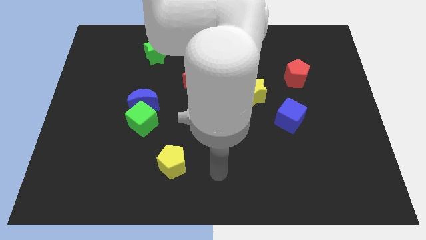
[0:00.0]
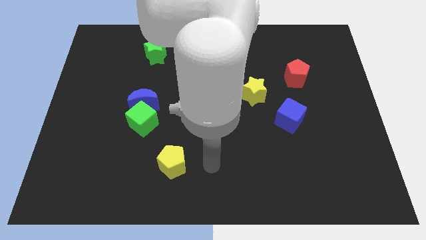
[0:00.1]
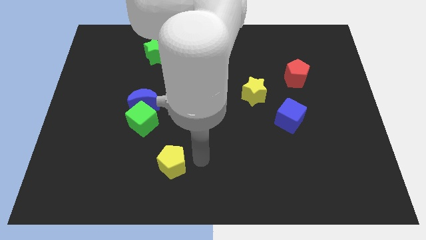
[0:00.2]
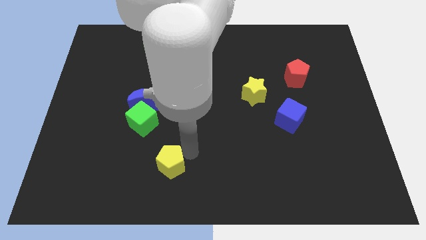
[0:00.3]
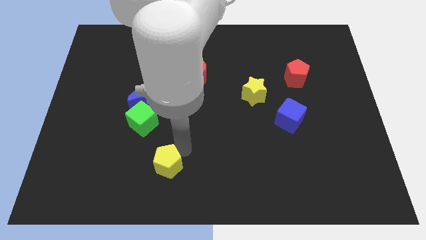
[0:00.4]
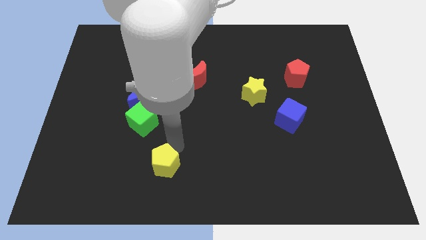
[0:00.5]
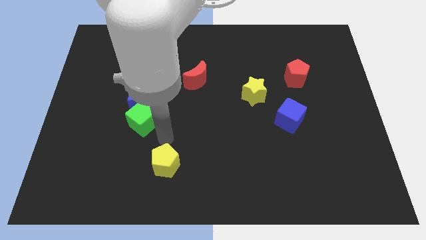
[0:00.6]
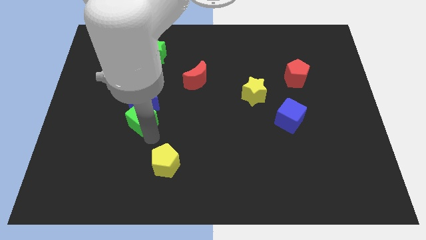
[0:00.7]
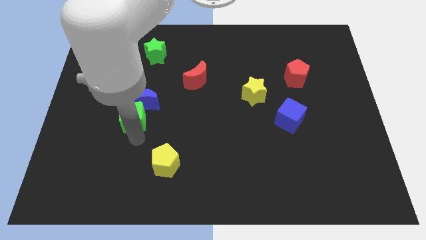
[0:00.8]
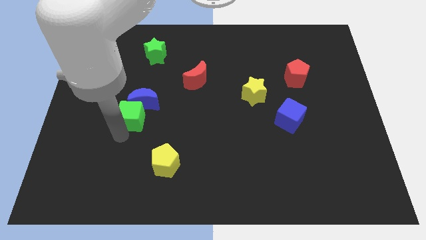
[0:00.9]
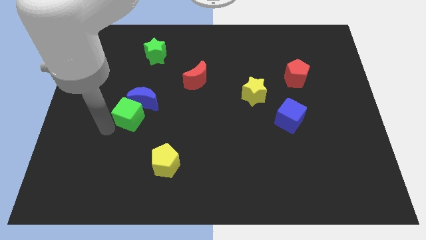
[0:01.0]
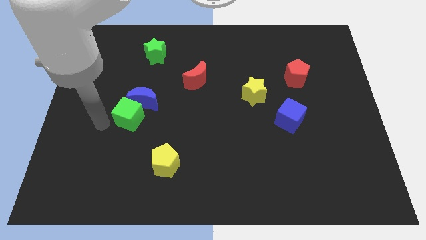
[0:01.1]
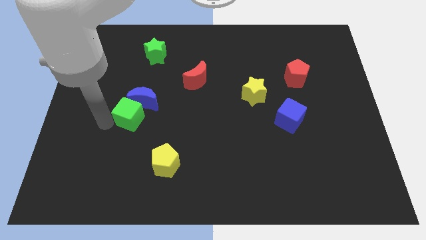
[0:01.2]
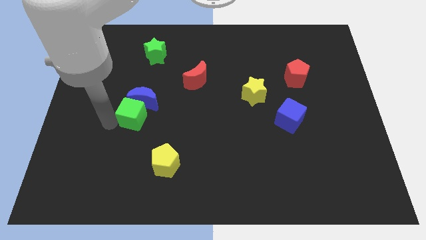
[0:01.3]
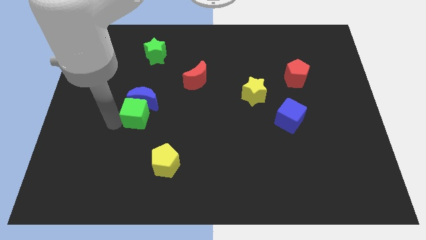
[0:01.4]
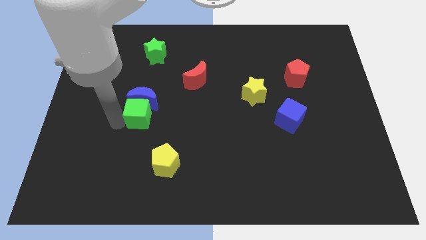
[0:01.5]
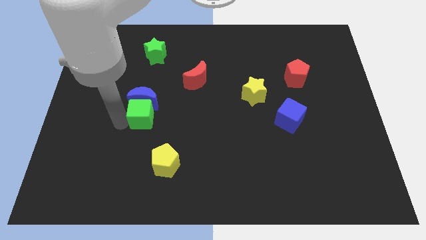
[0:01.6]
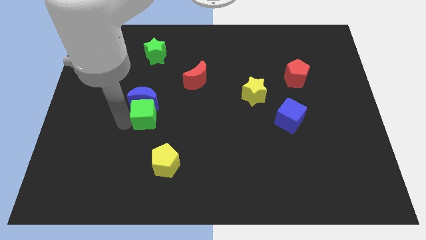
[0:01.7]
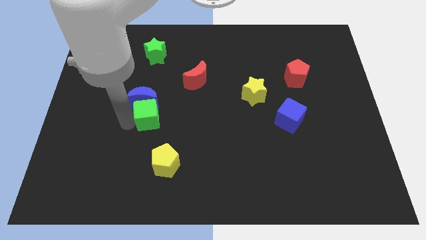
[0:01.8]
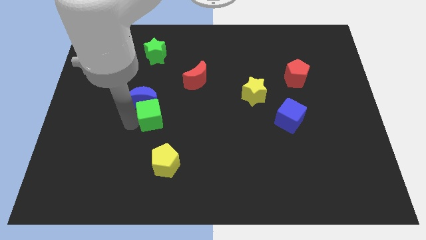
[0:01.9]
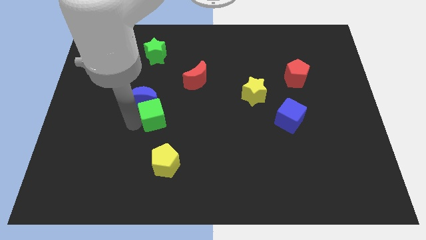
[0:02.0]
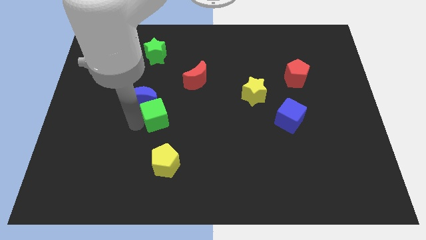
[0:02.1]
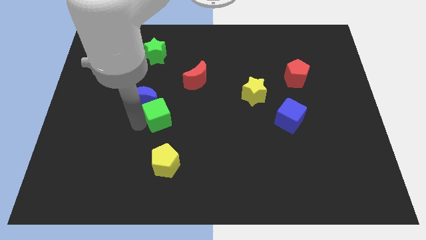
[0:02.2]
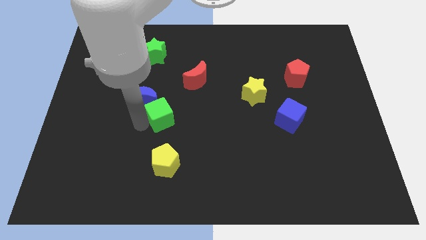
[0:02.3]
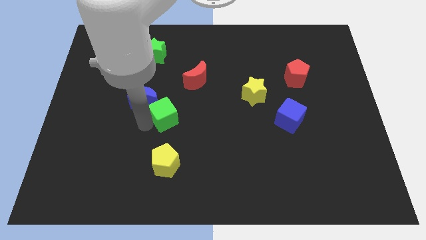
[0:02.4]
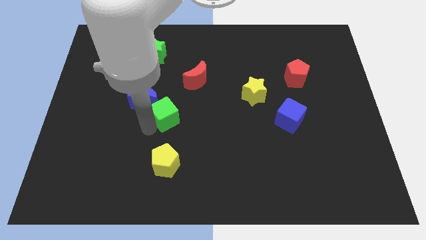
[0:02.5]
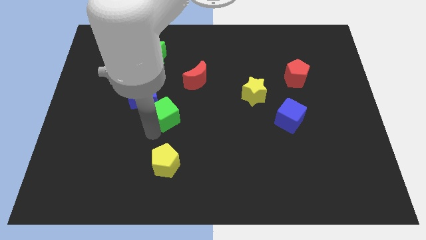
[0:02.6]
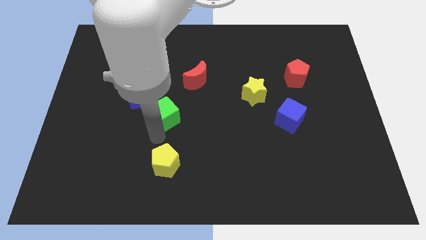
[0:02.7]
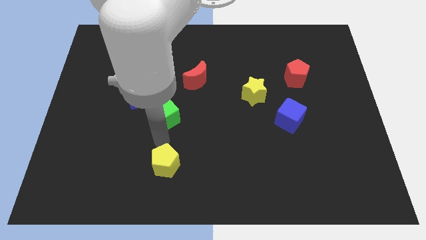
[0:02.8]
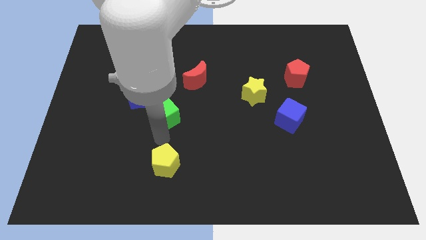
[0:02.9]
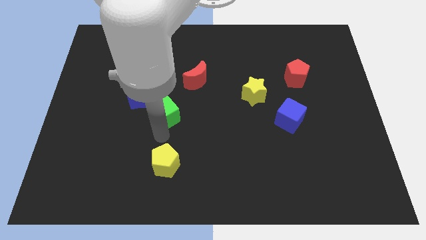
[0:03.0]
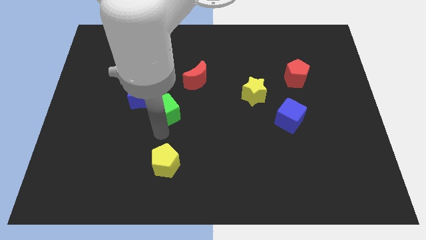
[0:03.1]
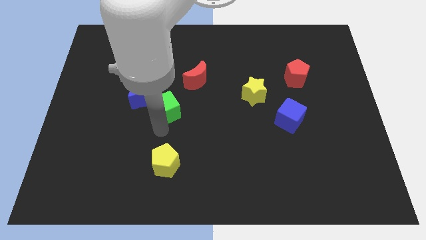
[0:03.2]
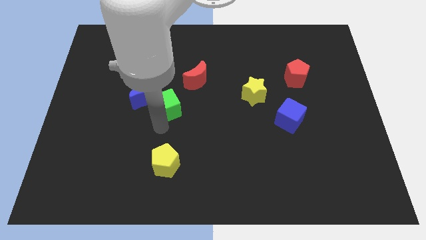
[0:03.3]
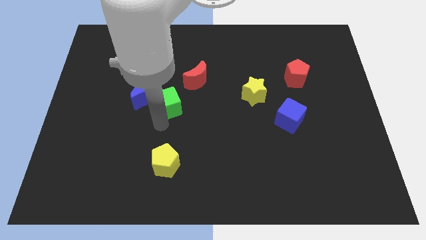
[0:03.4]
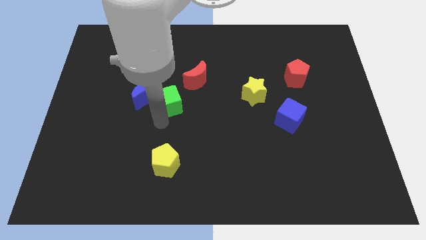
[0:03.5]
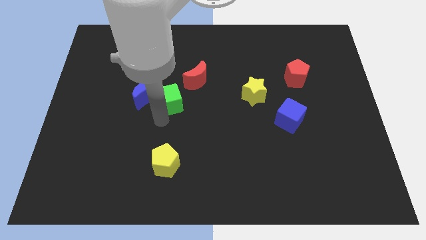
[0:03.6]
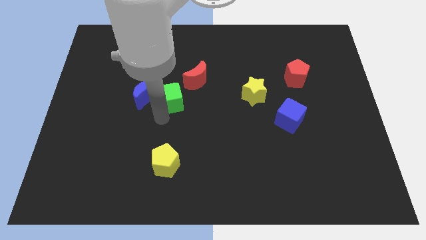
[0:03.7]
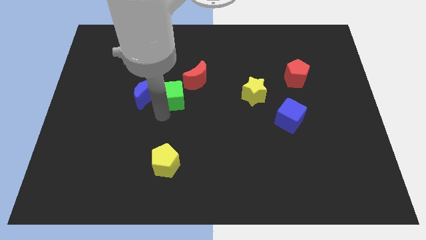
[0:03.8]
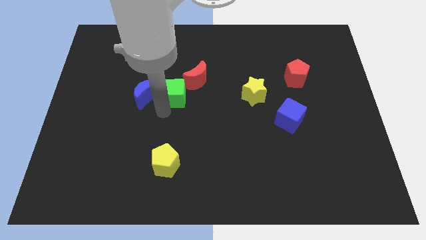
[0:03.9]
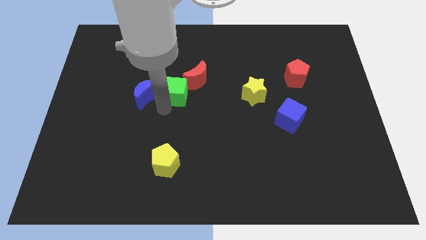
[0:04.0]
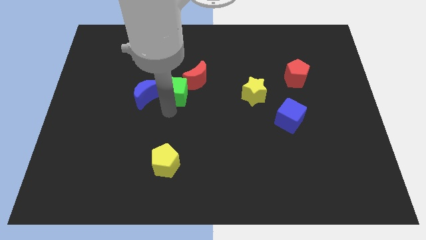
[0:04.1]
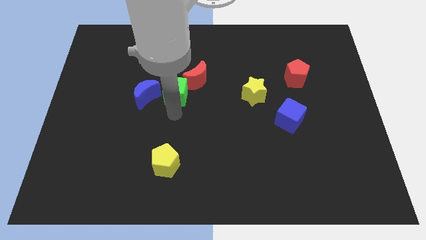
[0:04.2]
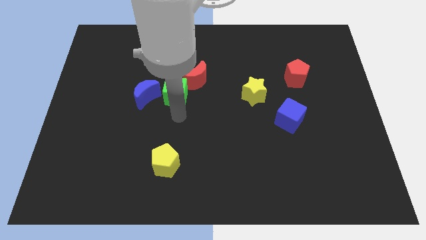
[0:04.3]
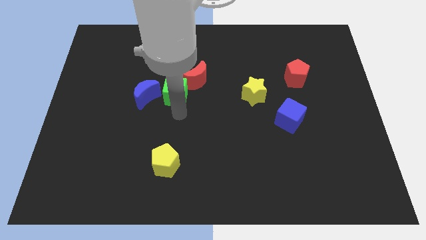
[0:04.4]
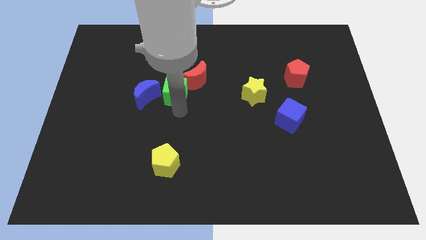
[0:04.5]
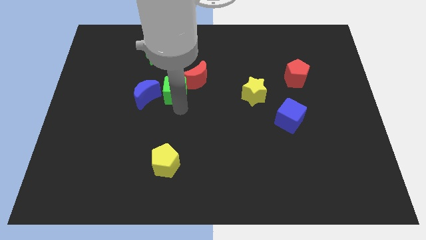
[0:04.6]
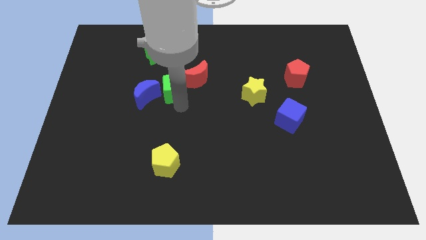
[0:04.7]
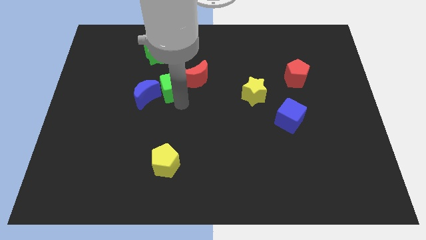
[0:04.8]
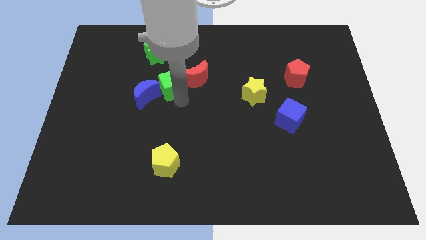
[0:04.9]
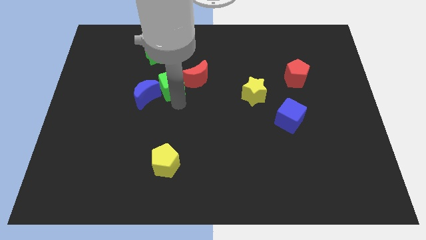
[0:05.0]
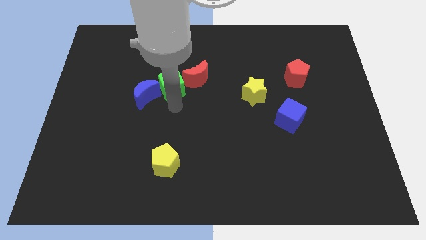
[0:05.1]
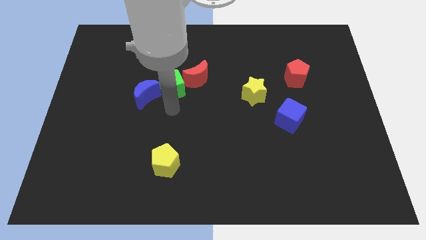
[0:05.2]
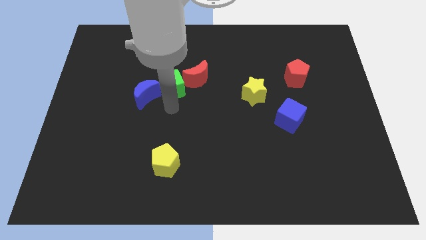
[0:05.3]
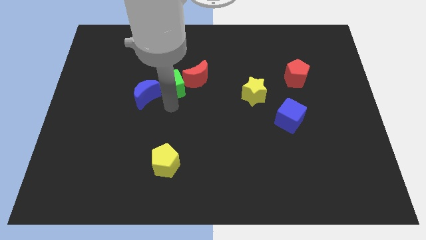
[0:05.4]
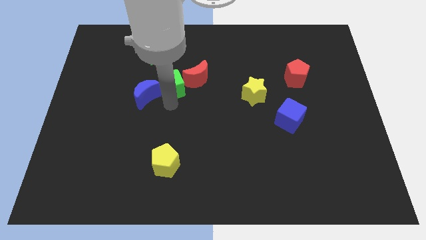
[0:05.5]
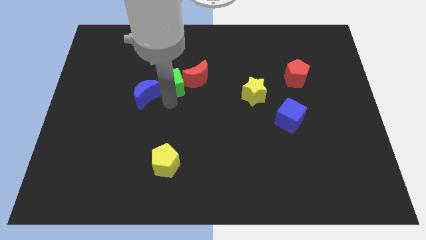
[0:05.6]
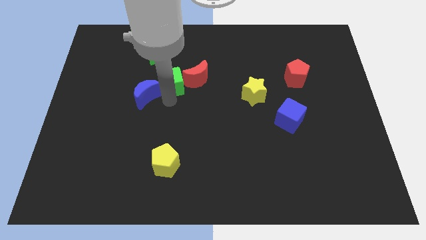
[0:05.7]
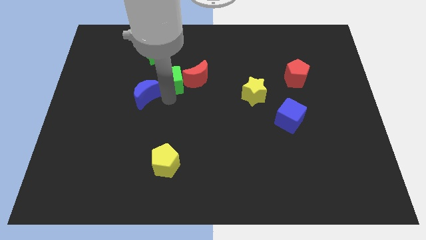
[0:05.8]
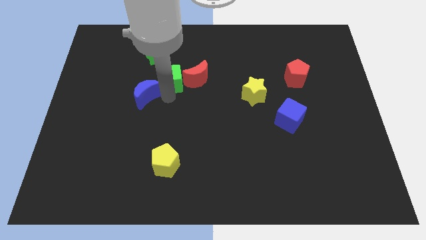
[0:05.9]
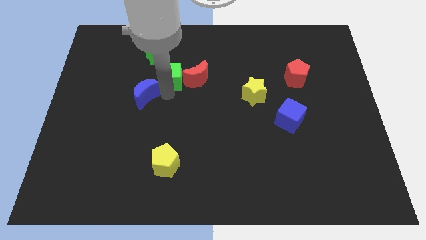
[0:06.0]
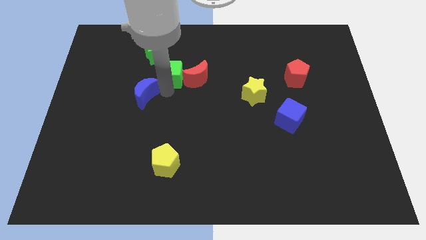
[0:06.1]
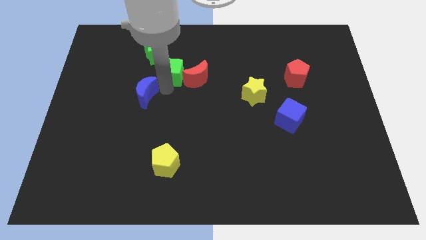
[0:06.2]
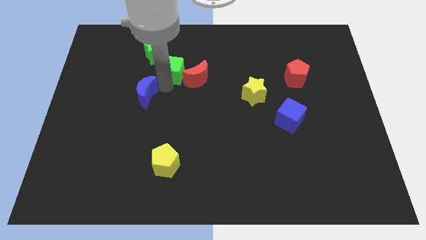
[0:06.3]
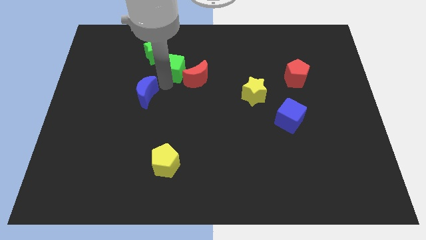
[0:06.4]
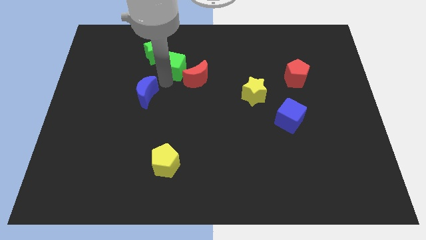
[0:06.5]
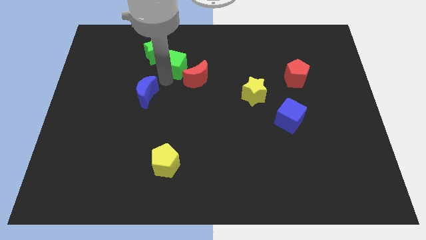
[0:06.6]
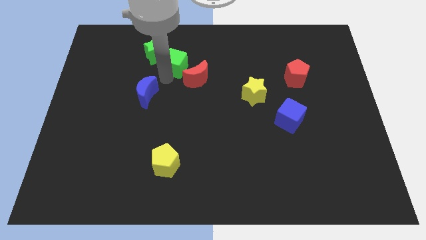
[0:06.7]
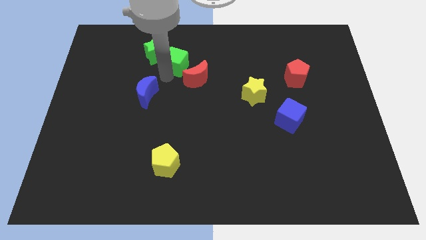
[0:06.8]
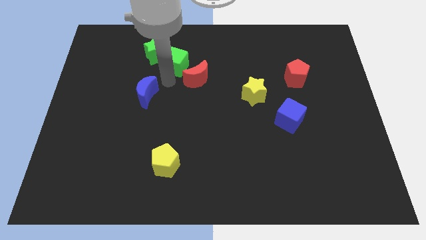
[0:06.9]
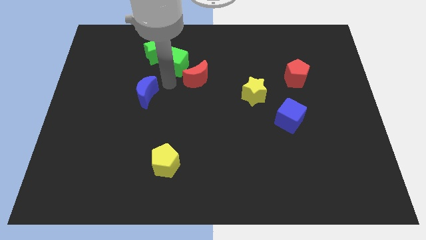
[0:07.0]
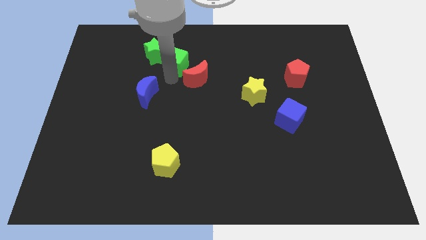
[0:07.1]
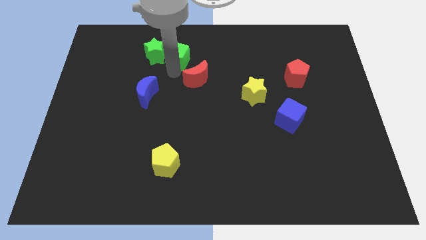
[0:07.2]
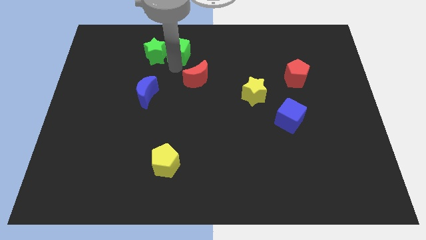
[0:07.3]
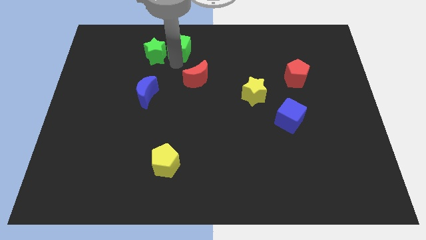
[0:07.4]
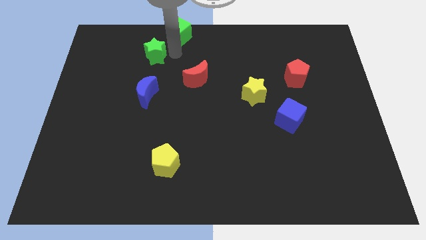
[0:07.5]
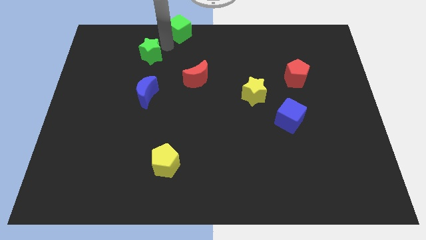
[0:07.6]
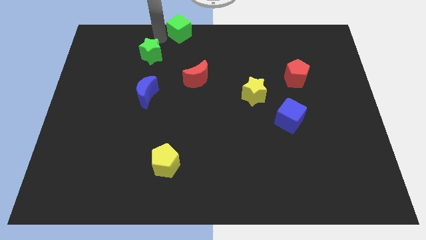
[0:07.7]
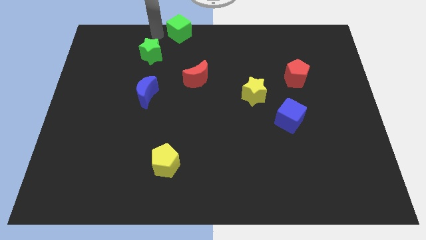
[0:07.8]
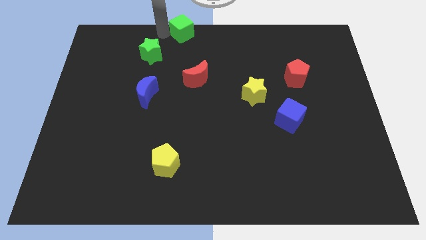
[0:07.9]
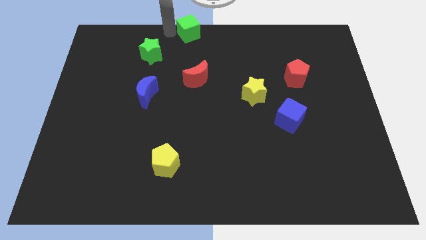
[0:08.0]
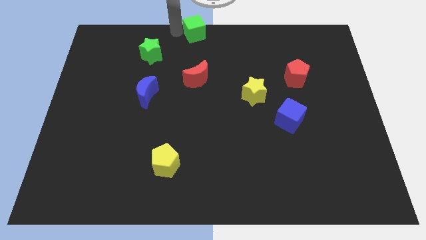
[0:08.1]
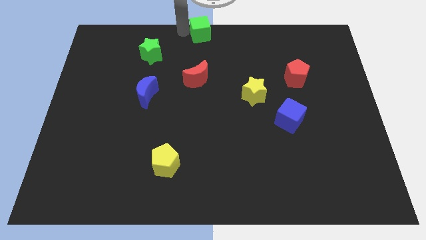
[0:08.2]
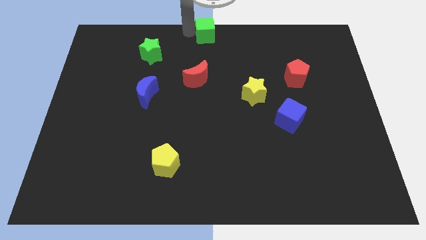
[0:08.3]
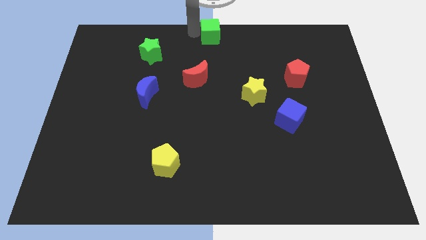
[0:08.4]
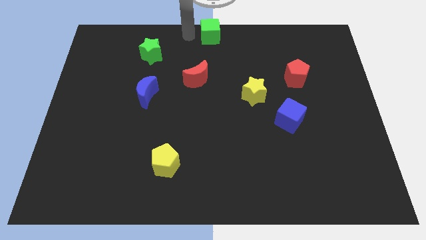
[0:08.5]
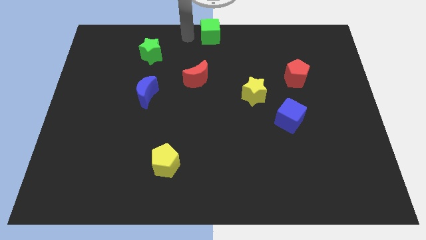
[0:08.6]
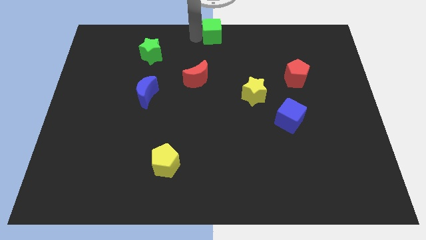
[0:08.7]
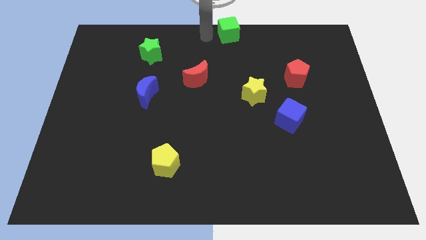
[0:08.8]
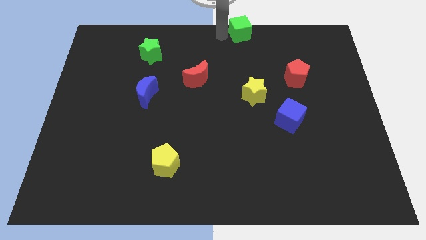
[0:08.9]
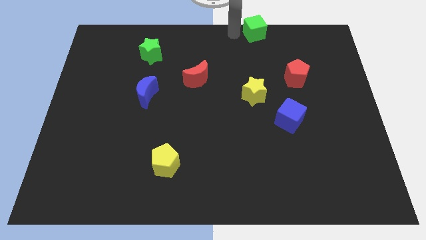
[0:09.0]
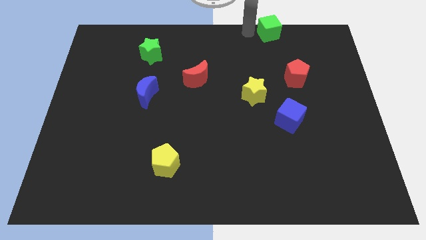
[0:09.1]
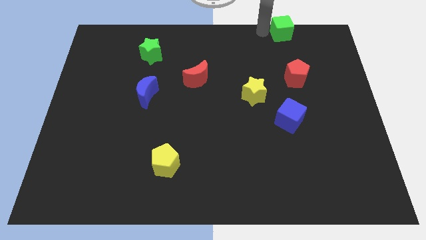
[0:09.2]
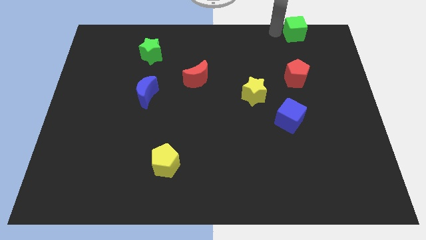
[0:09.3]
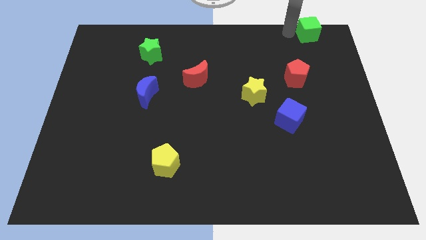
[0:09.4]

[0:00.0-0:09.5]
move the green cube to the top right corner
